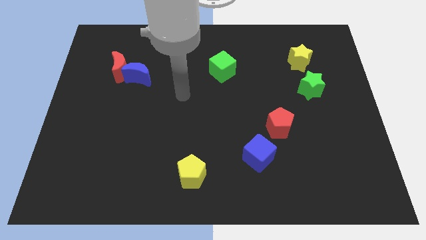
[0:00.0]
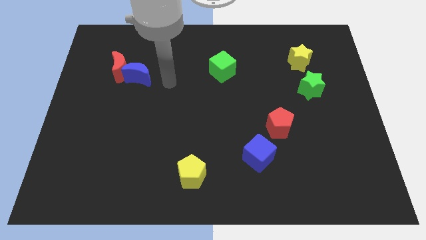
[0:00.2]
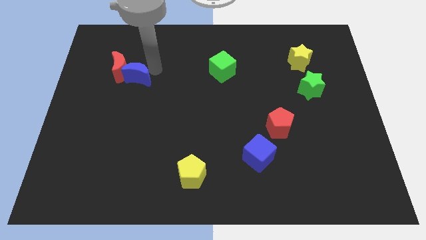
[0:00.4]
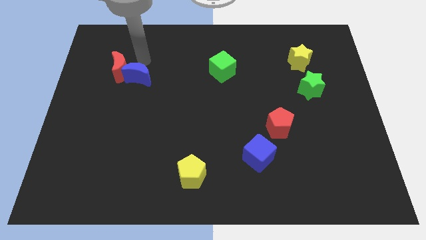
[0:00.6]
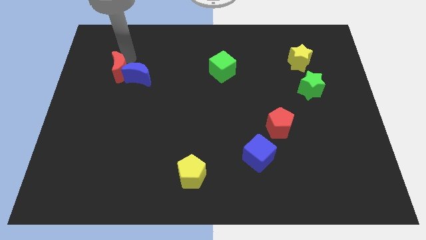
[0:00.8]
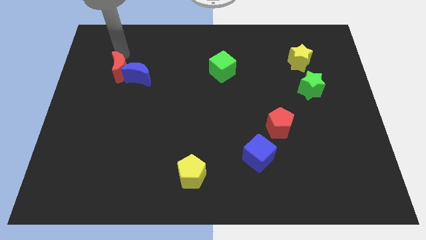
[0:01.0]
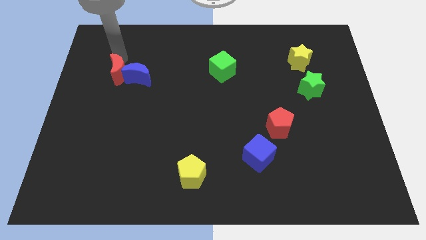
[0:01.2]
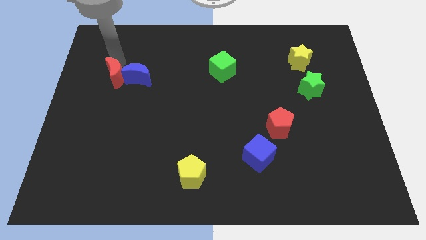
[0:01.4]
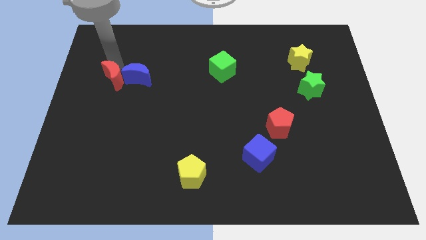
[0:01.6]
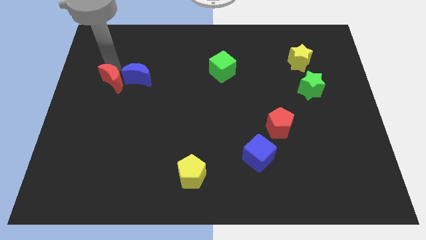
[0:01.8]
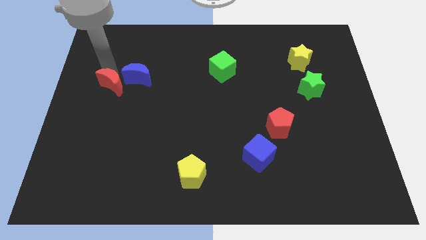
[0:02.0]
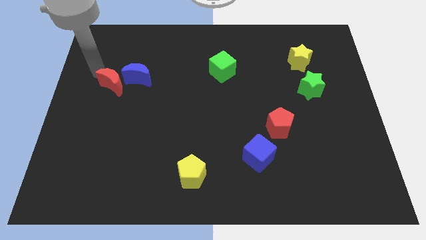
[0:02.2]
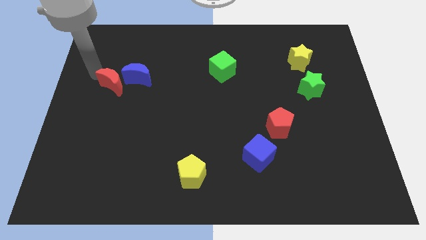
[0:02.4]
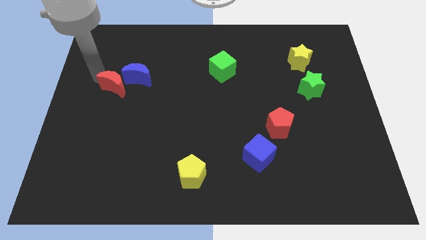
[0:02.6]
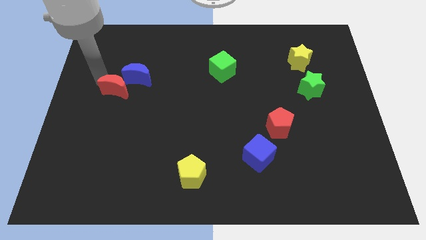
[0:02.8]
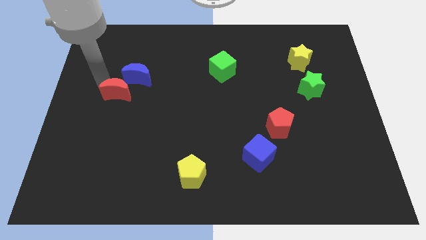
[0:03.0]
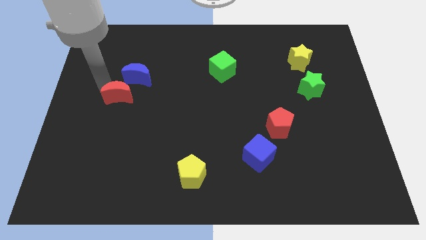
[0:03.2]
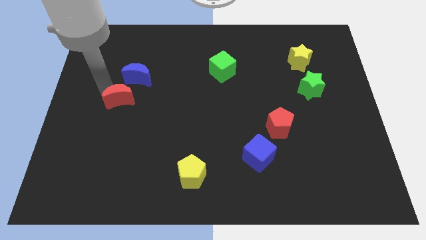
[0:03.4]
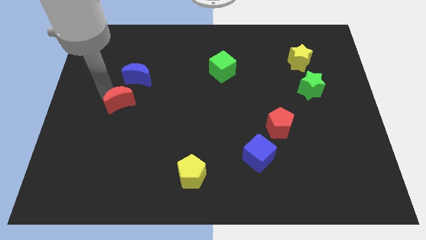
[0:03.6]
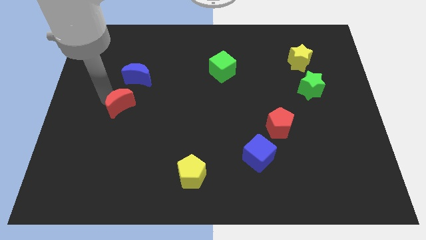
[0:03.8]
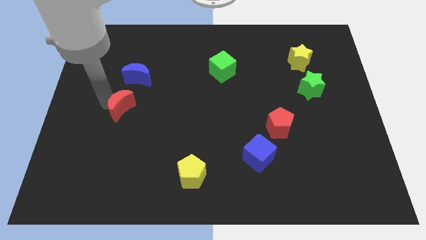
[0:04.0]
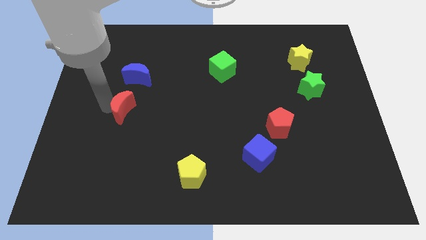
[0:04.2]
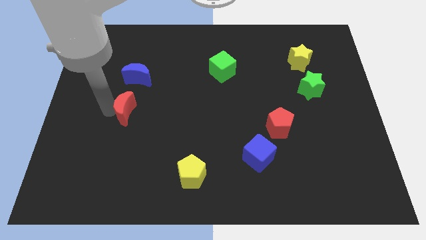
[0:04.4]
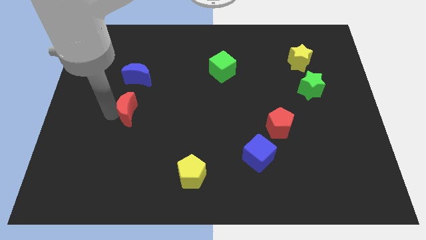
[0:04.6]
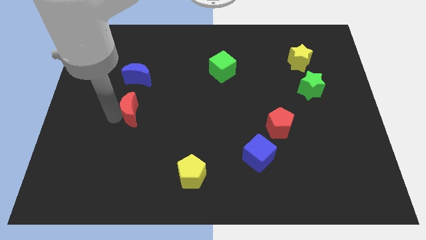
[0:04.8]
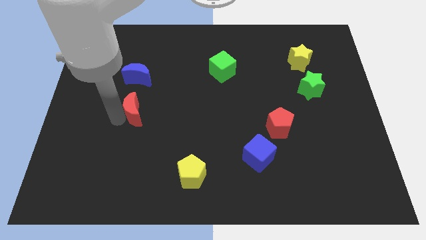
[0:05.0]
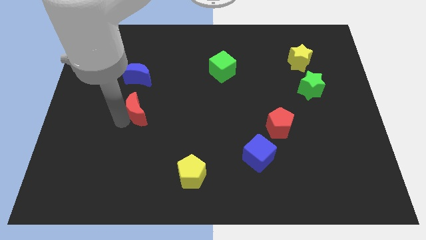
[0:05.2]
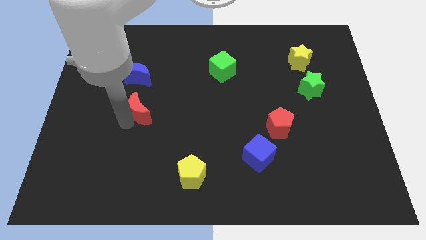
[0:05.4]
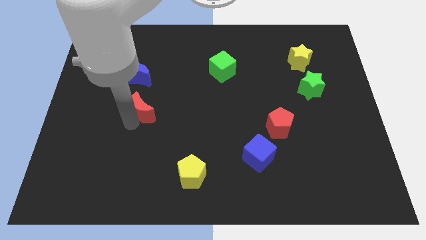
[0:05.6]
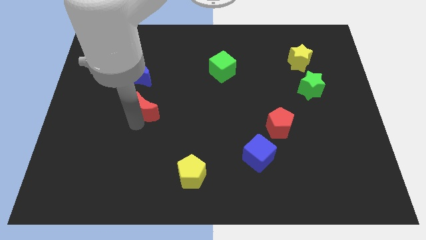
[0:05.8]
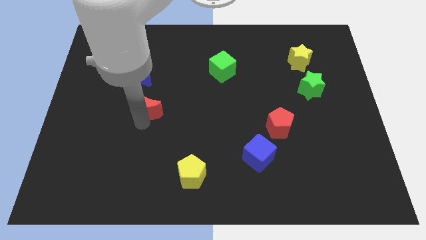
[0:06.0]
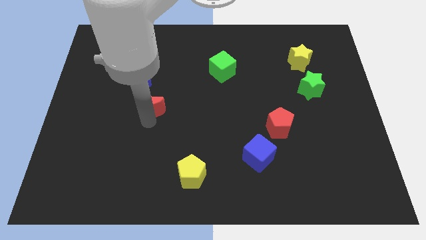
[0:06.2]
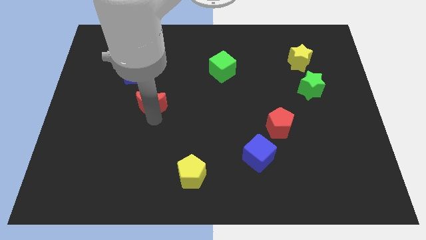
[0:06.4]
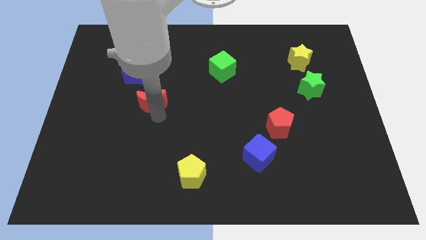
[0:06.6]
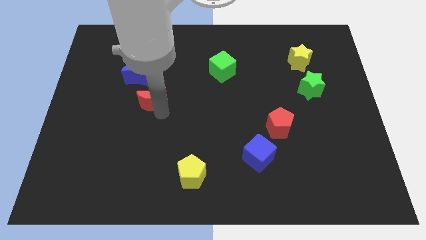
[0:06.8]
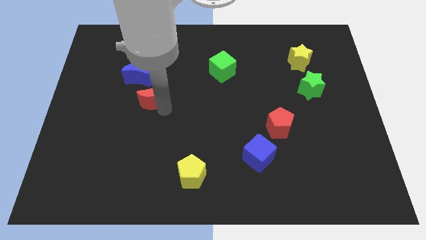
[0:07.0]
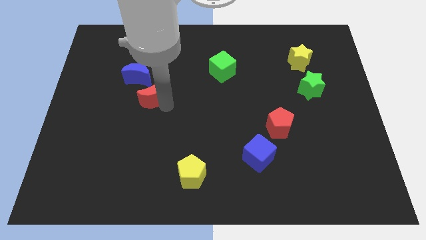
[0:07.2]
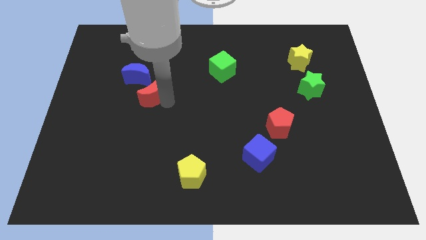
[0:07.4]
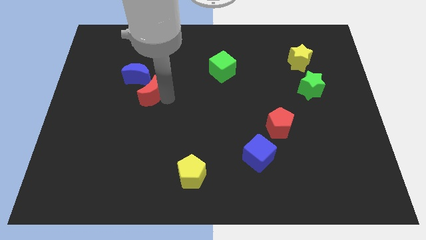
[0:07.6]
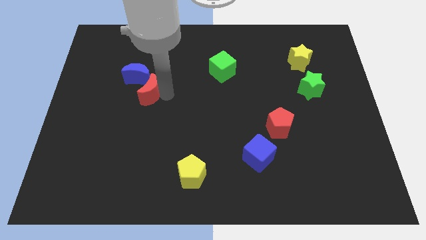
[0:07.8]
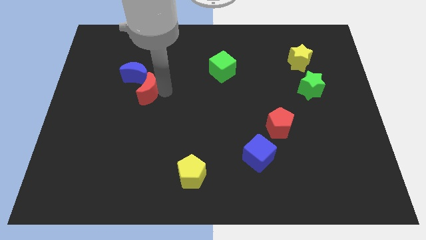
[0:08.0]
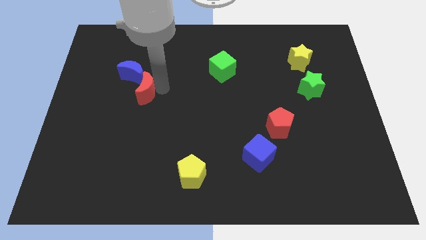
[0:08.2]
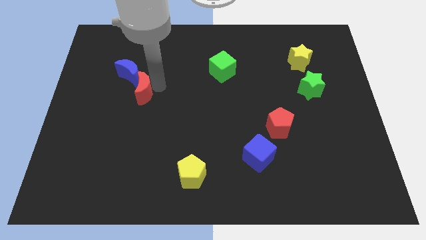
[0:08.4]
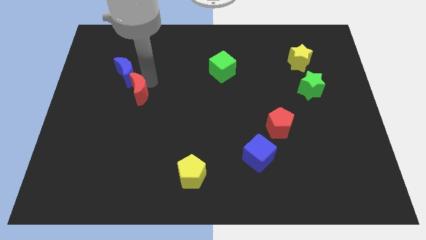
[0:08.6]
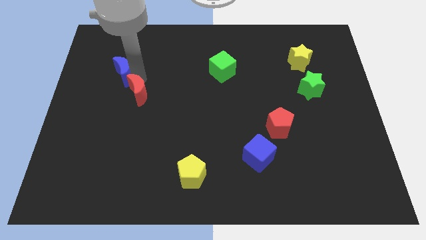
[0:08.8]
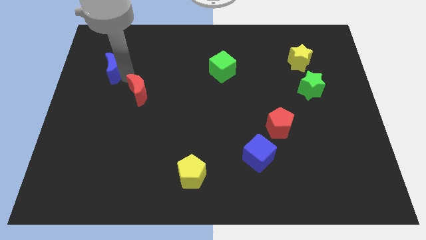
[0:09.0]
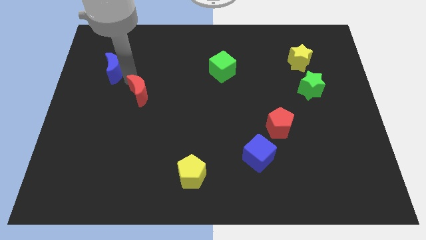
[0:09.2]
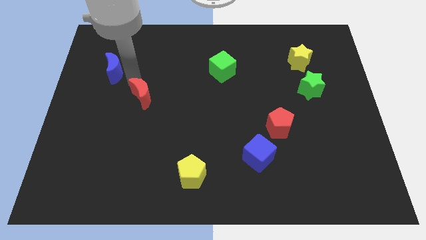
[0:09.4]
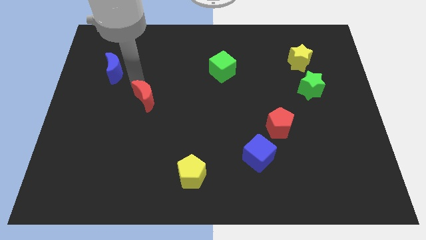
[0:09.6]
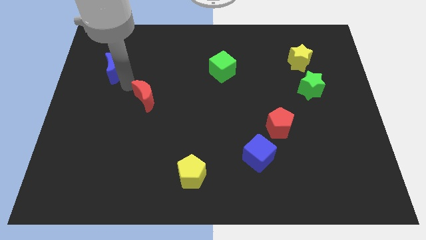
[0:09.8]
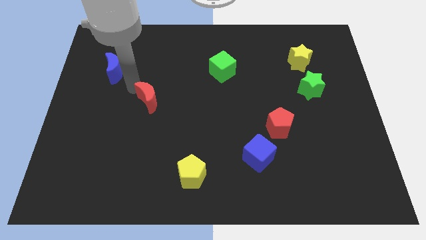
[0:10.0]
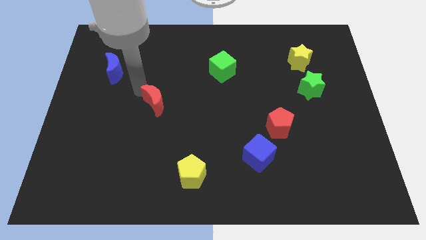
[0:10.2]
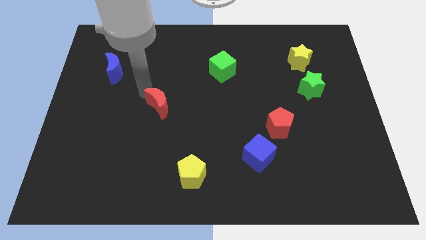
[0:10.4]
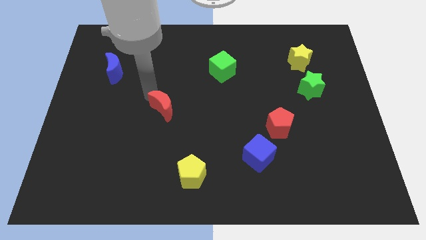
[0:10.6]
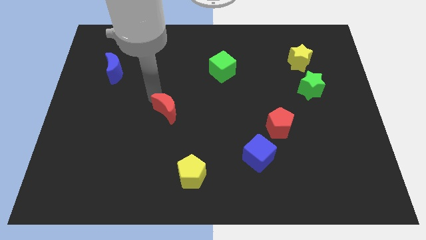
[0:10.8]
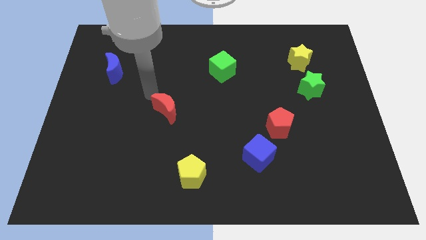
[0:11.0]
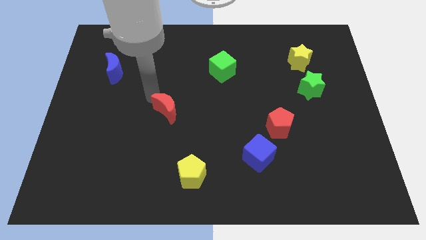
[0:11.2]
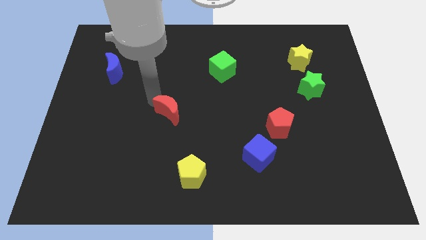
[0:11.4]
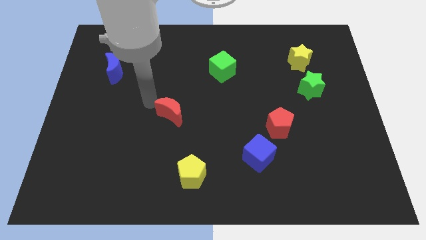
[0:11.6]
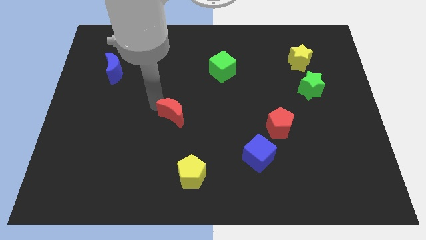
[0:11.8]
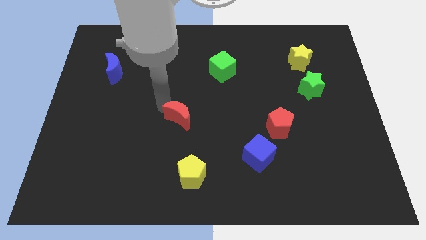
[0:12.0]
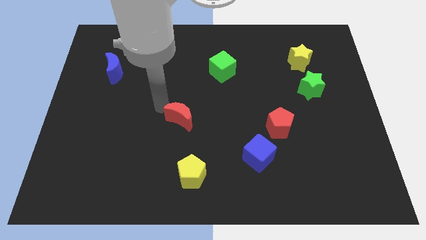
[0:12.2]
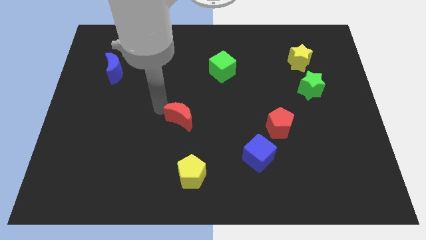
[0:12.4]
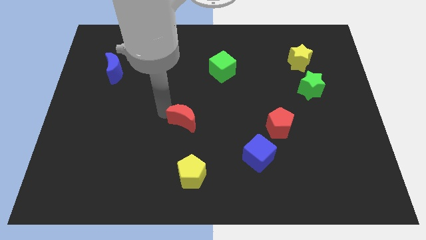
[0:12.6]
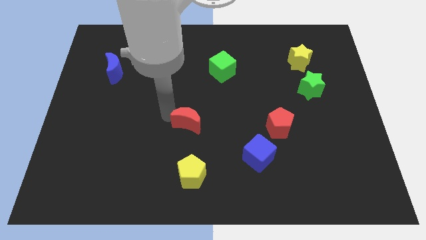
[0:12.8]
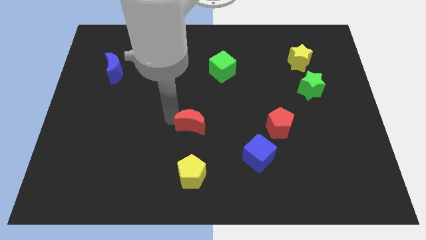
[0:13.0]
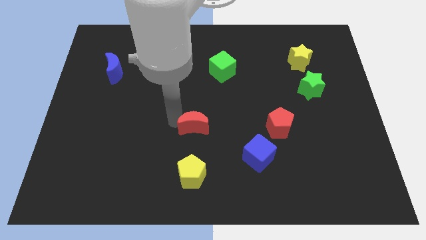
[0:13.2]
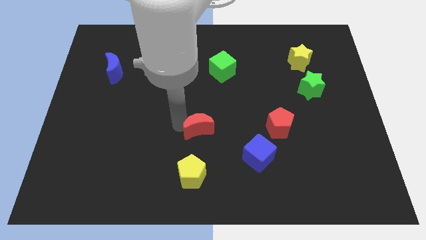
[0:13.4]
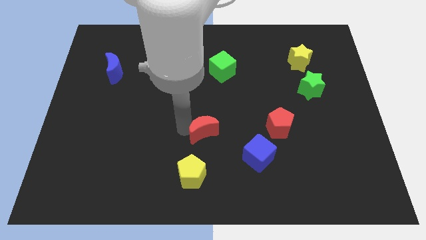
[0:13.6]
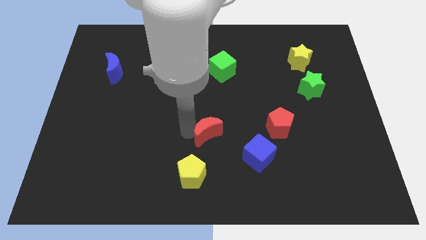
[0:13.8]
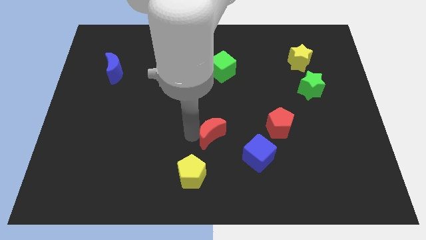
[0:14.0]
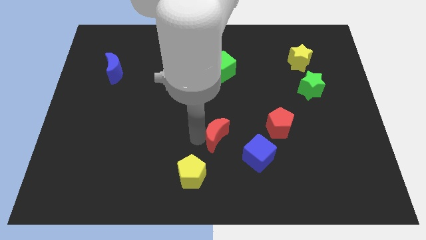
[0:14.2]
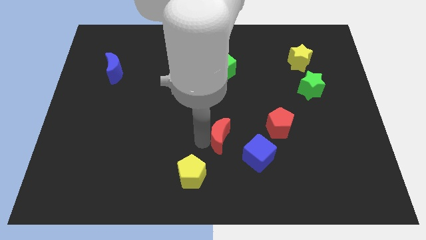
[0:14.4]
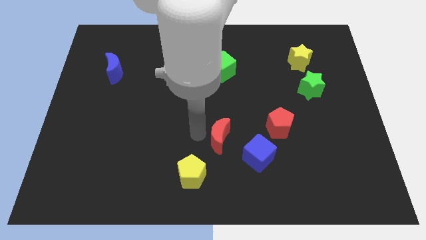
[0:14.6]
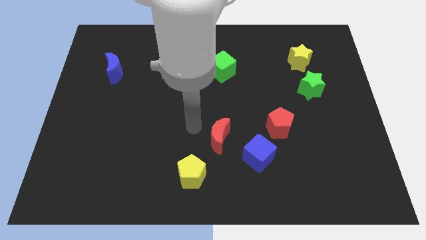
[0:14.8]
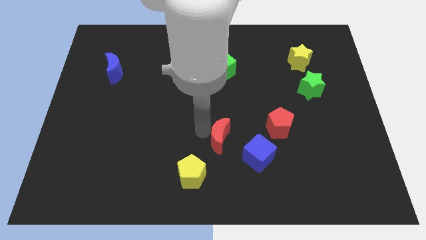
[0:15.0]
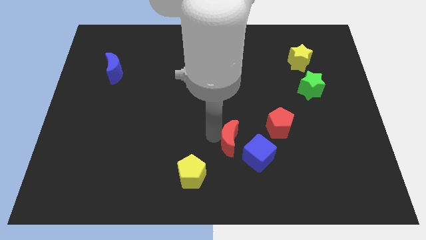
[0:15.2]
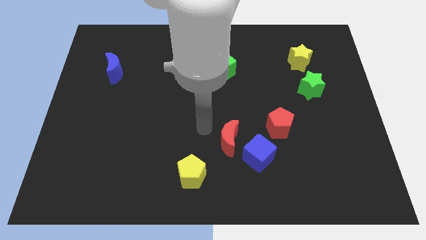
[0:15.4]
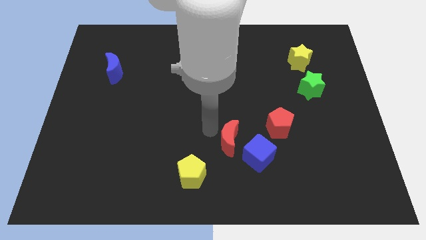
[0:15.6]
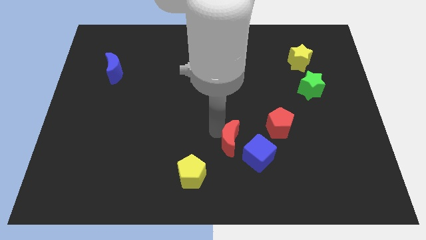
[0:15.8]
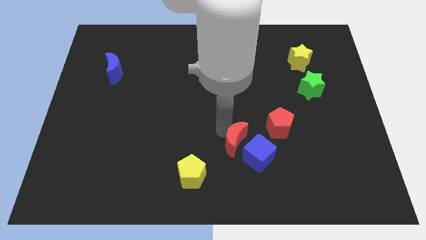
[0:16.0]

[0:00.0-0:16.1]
push the red moon close to the blue cube
